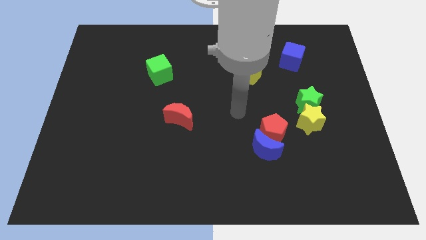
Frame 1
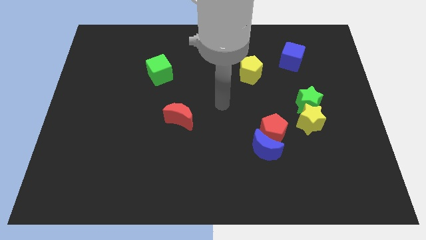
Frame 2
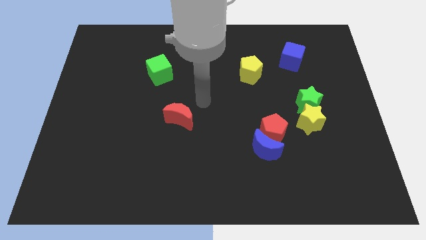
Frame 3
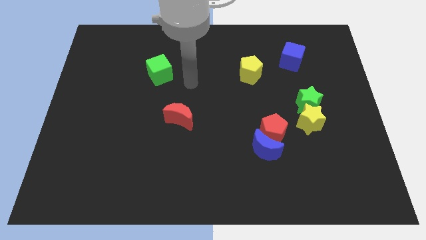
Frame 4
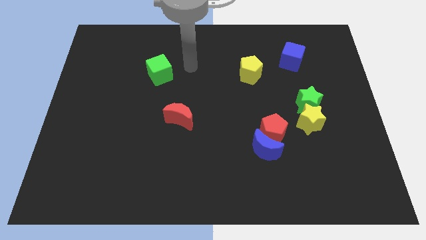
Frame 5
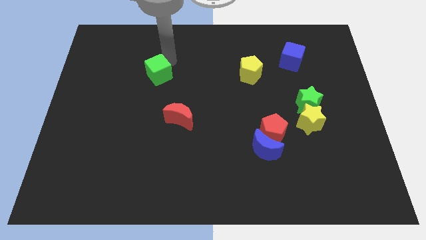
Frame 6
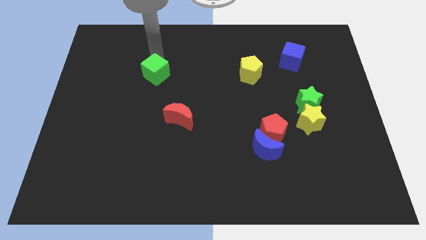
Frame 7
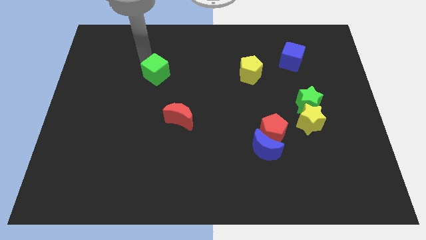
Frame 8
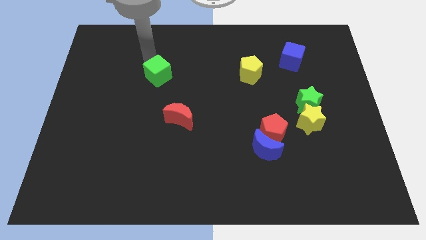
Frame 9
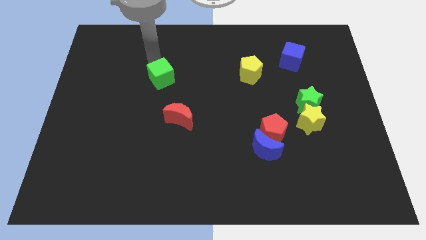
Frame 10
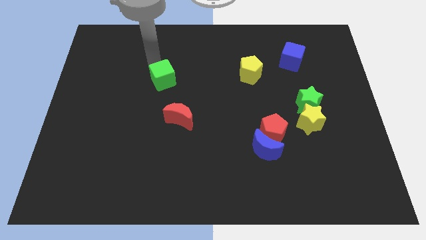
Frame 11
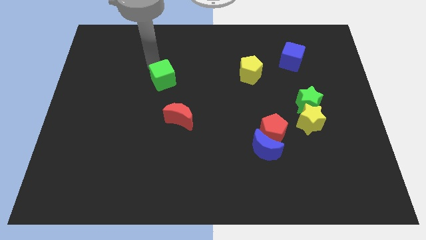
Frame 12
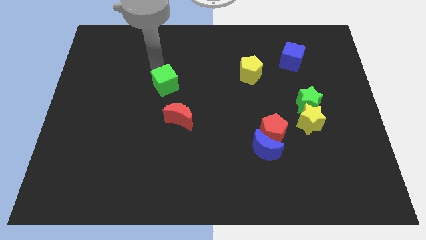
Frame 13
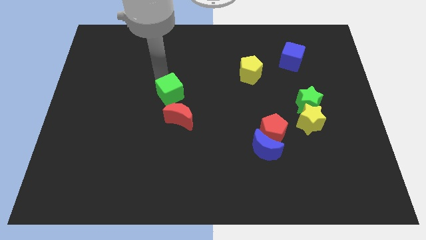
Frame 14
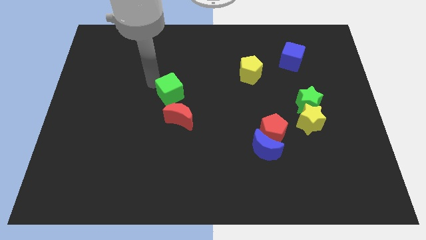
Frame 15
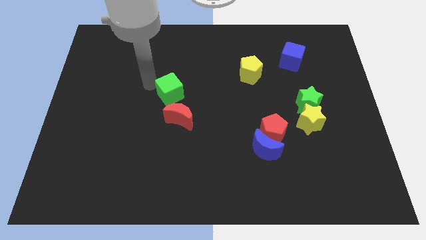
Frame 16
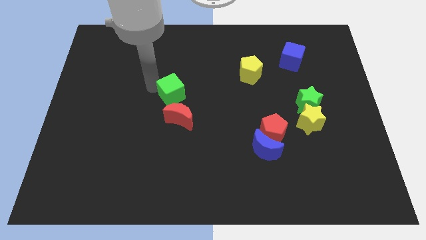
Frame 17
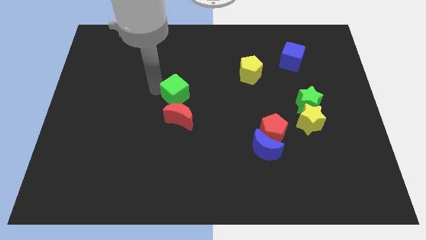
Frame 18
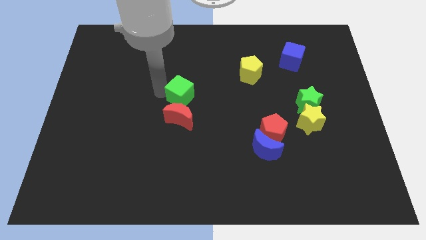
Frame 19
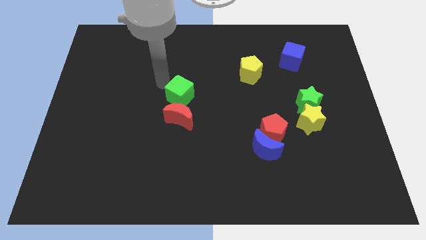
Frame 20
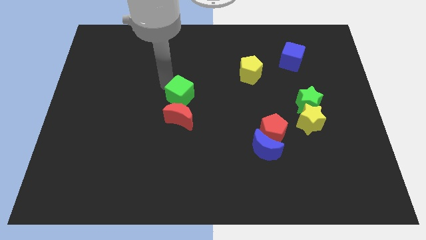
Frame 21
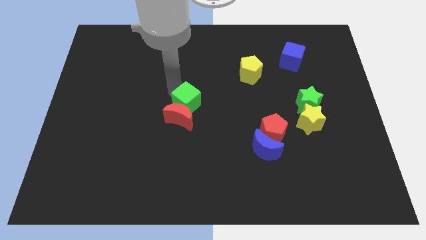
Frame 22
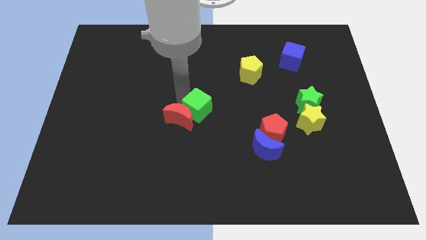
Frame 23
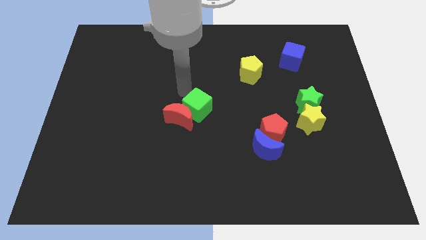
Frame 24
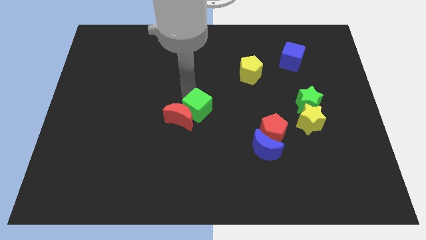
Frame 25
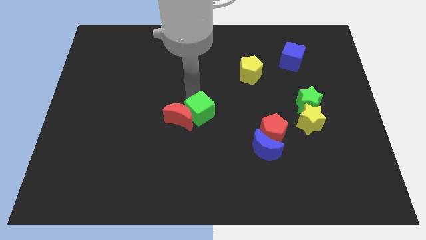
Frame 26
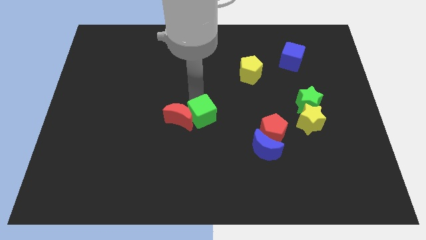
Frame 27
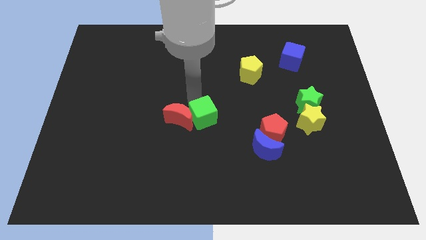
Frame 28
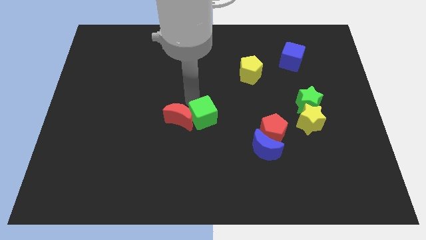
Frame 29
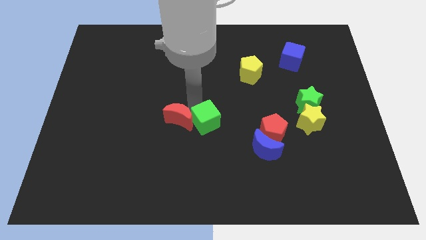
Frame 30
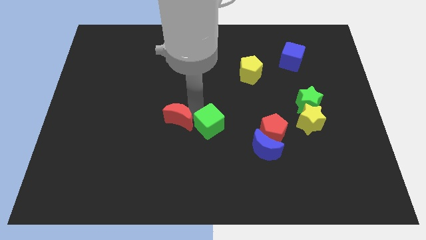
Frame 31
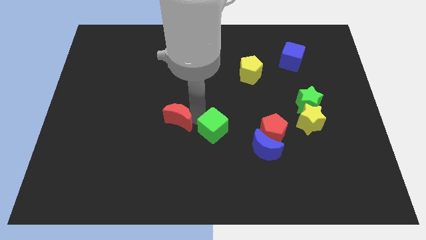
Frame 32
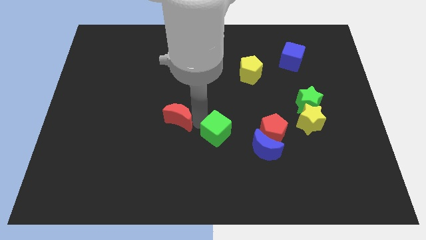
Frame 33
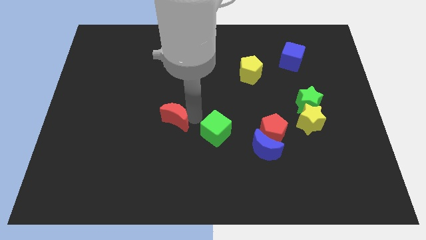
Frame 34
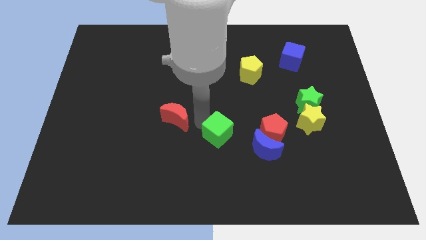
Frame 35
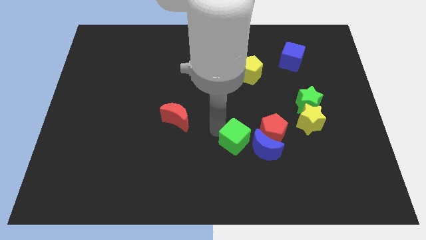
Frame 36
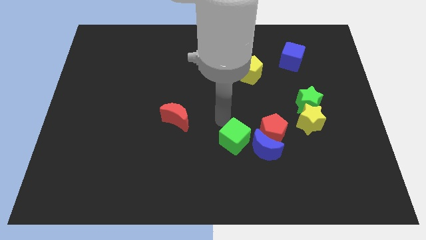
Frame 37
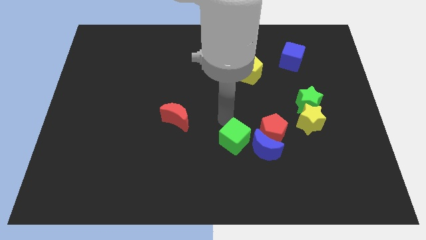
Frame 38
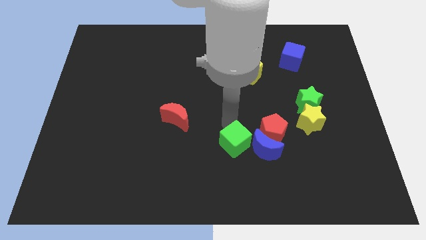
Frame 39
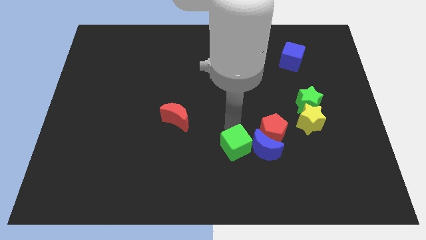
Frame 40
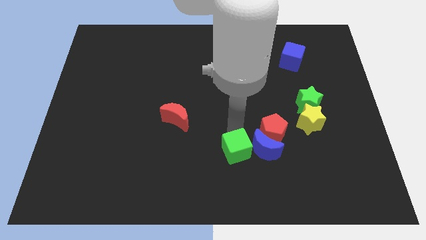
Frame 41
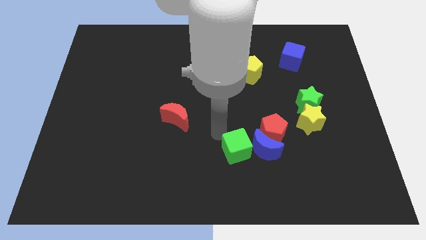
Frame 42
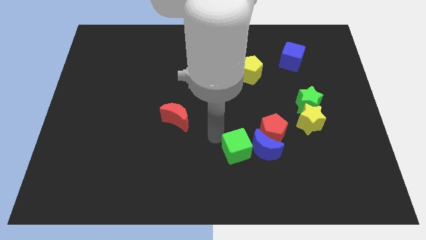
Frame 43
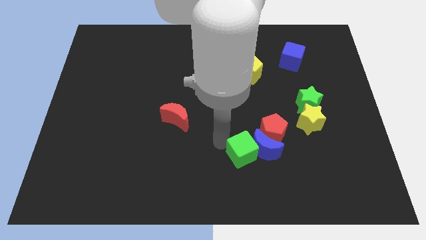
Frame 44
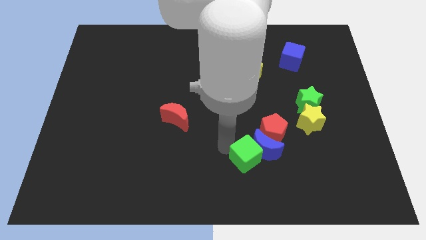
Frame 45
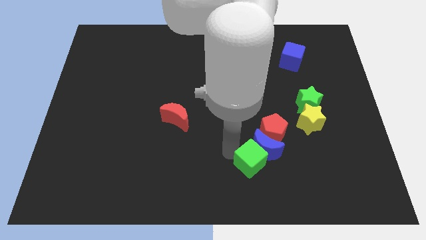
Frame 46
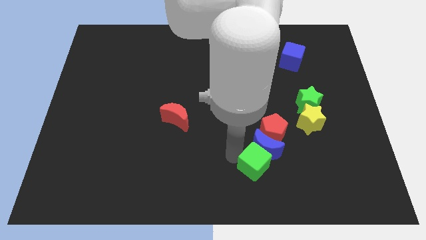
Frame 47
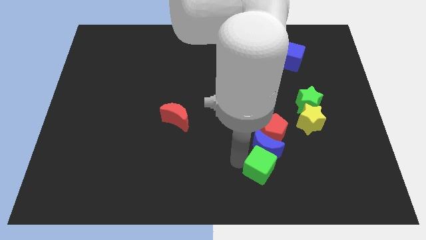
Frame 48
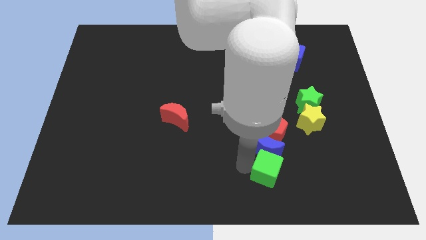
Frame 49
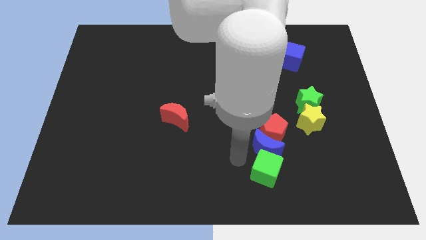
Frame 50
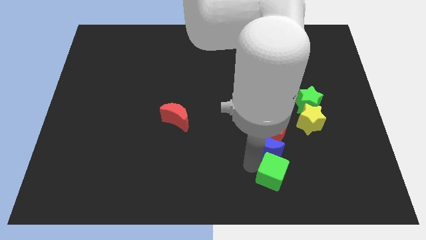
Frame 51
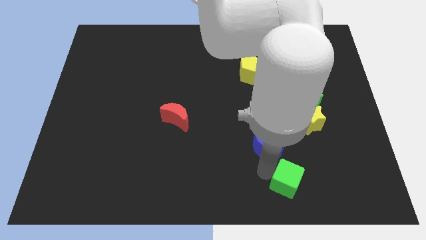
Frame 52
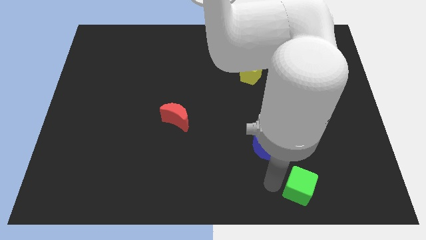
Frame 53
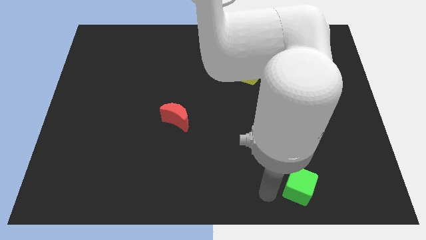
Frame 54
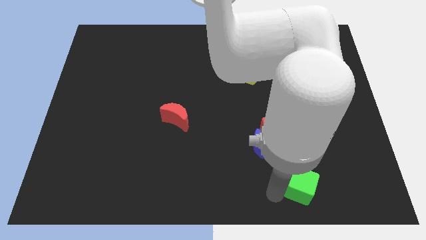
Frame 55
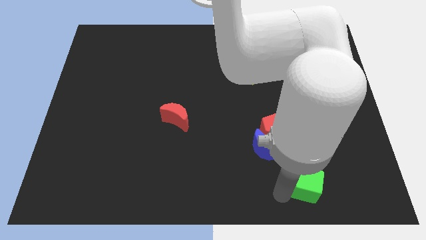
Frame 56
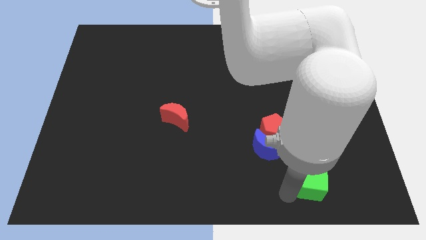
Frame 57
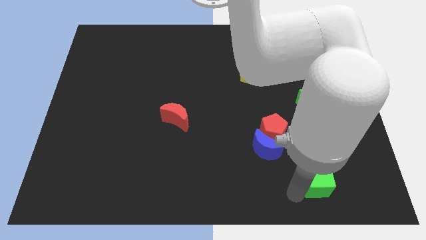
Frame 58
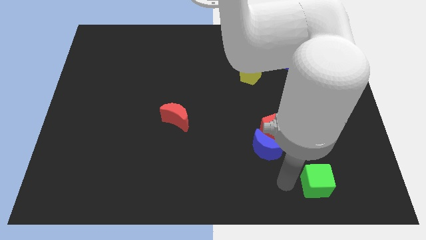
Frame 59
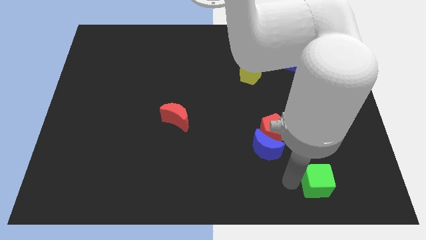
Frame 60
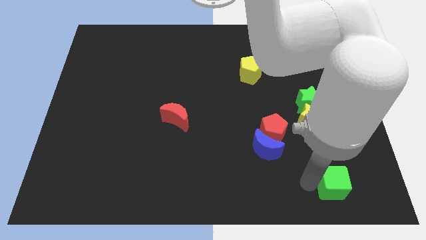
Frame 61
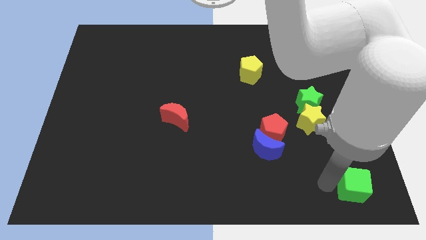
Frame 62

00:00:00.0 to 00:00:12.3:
put the green cube to the lower right corner

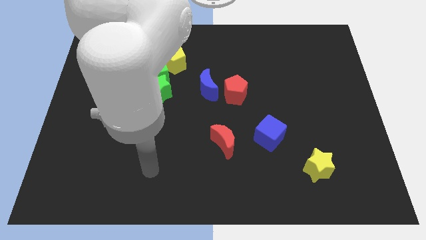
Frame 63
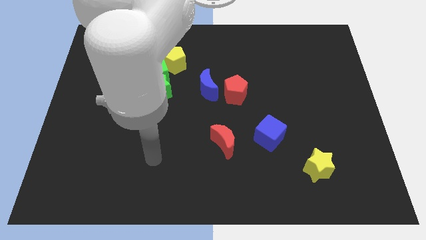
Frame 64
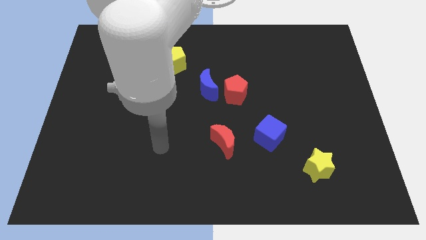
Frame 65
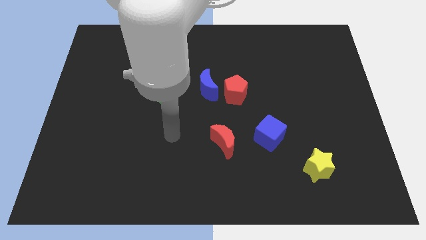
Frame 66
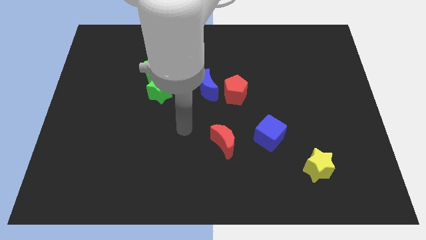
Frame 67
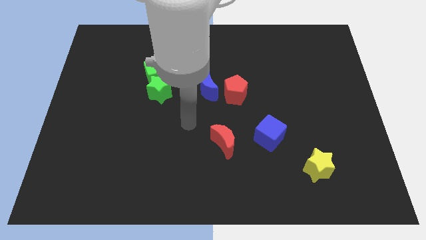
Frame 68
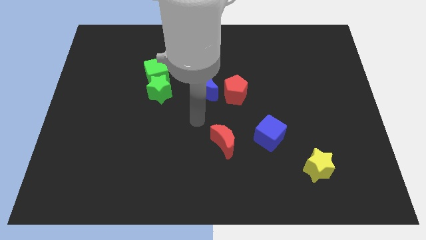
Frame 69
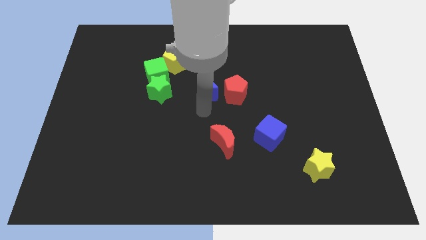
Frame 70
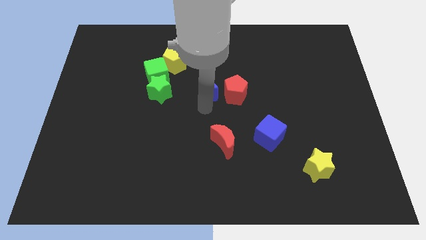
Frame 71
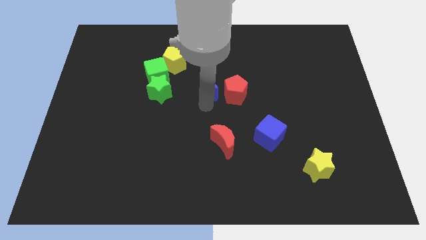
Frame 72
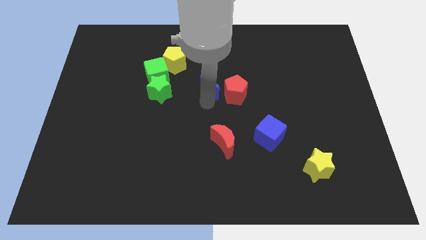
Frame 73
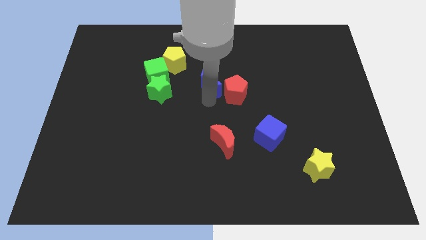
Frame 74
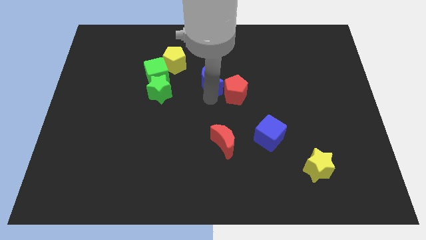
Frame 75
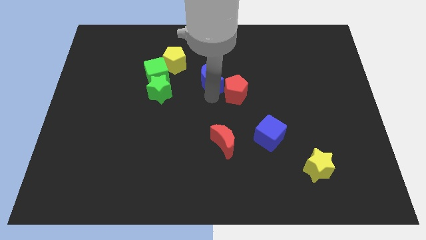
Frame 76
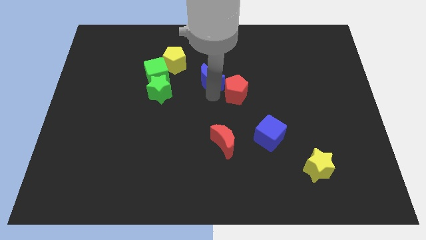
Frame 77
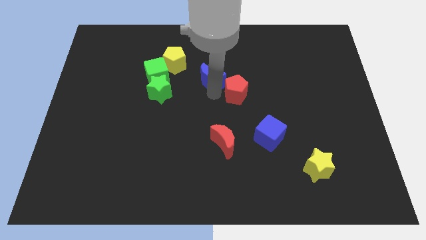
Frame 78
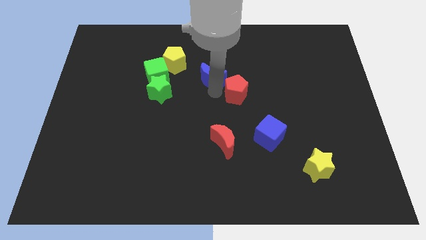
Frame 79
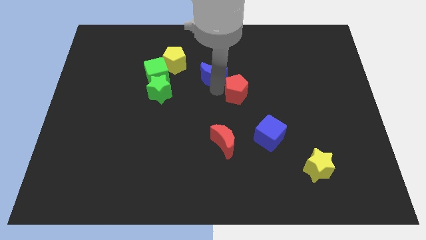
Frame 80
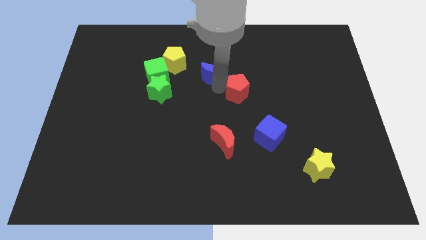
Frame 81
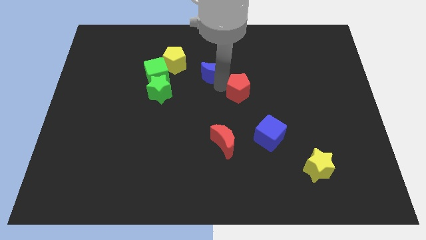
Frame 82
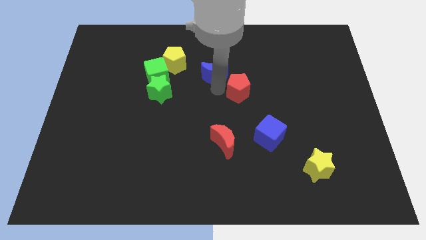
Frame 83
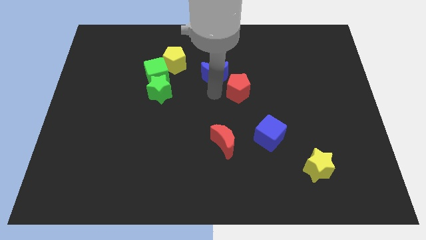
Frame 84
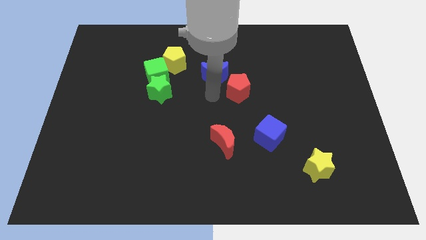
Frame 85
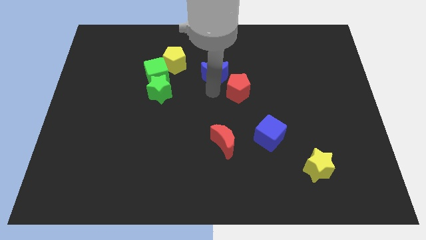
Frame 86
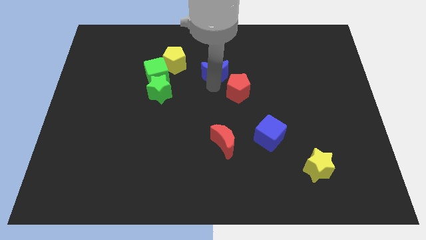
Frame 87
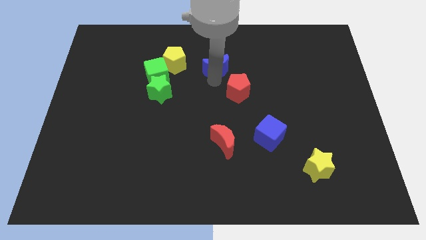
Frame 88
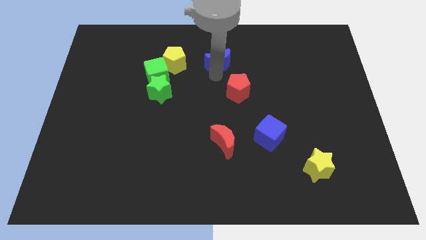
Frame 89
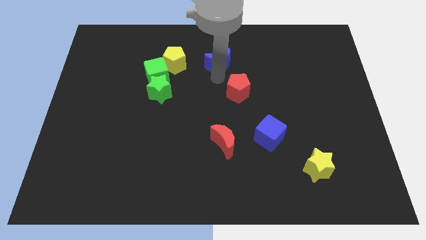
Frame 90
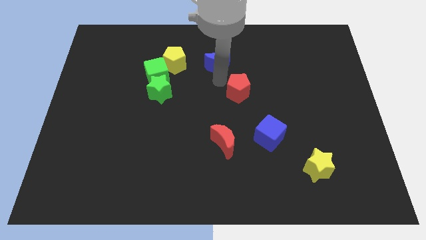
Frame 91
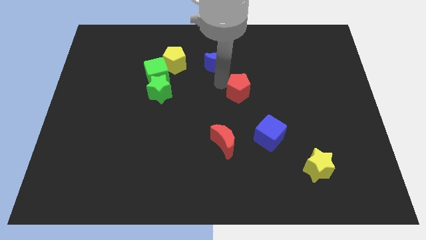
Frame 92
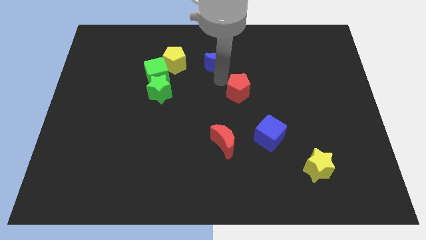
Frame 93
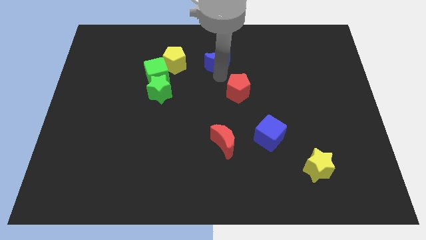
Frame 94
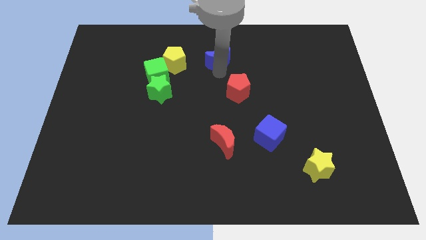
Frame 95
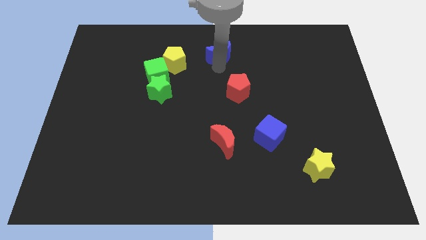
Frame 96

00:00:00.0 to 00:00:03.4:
move the blue moon to the top
